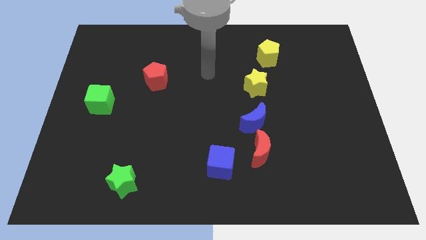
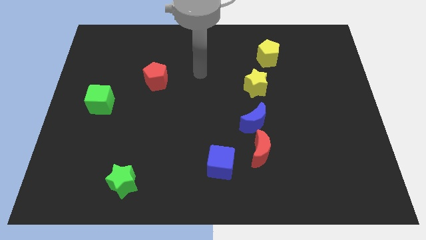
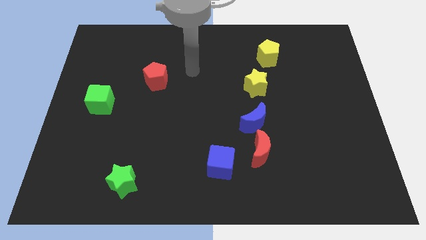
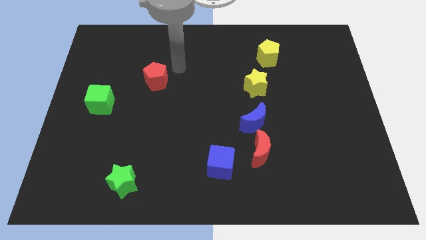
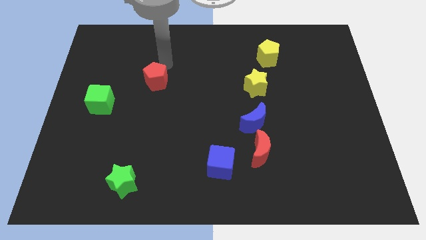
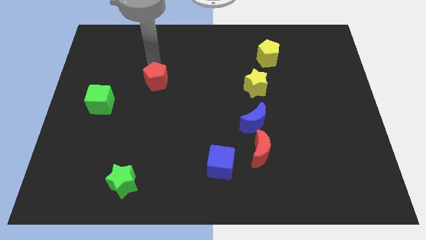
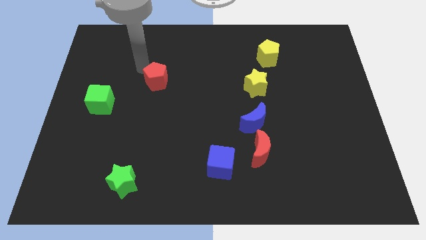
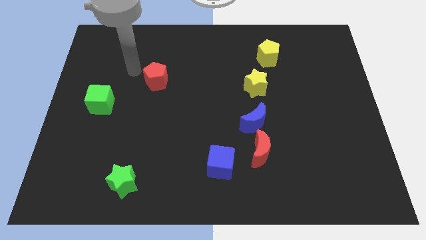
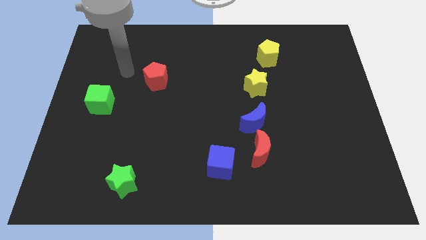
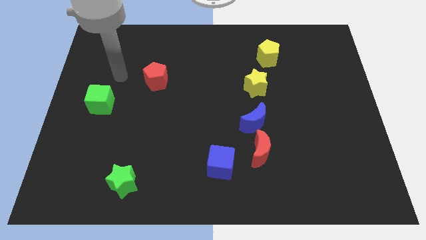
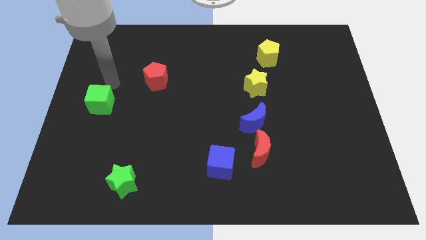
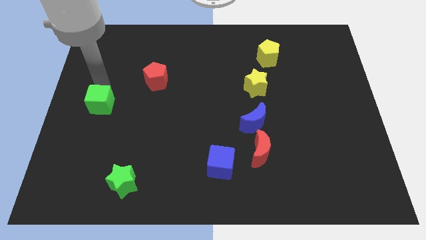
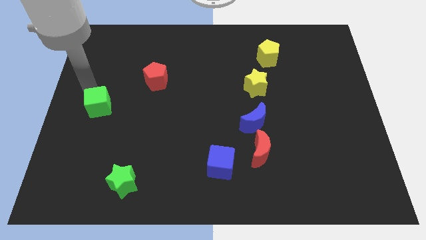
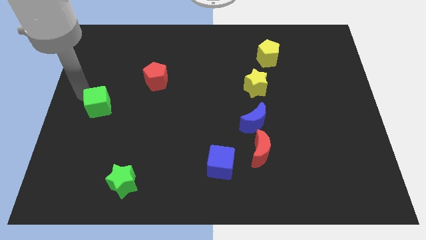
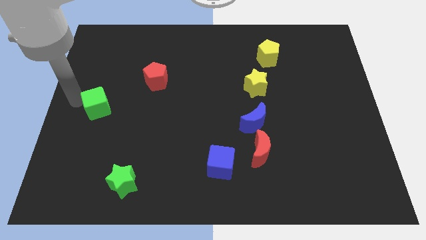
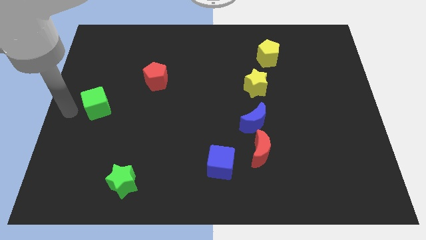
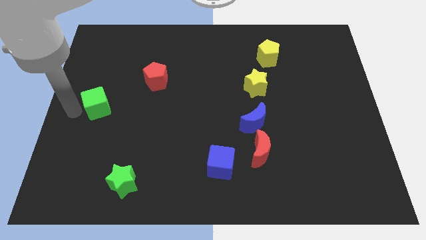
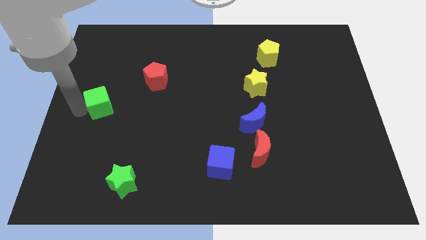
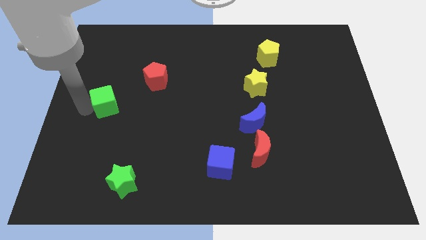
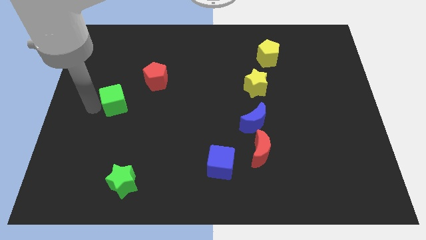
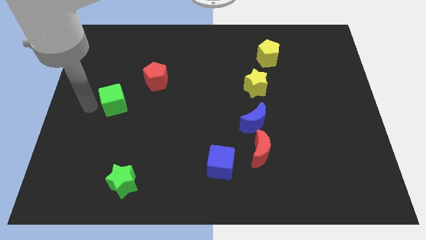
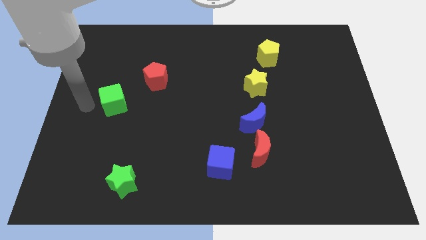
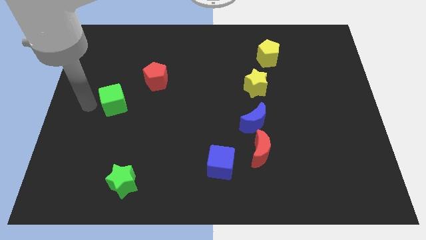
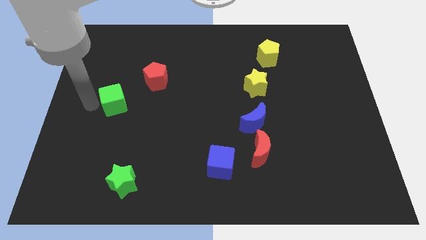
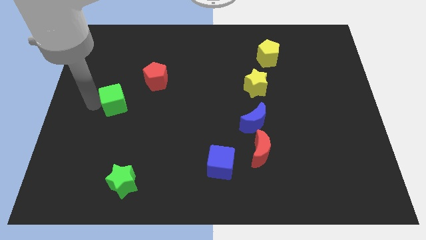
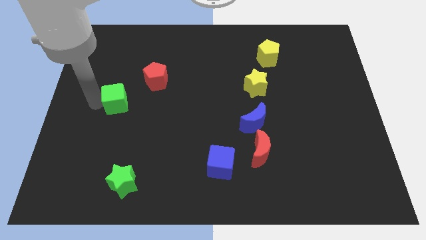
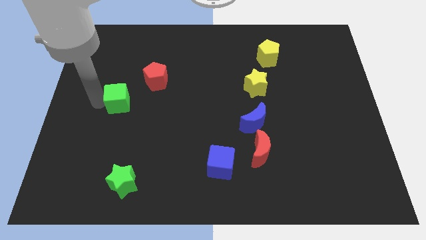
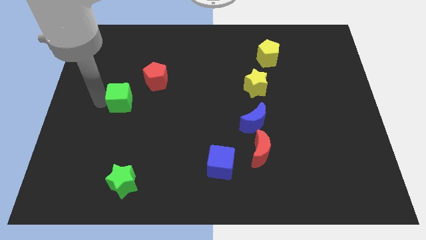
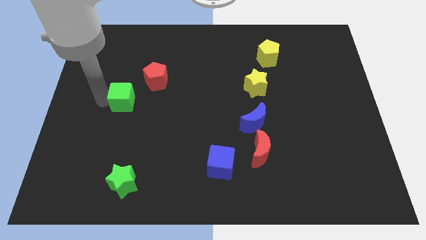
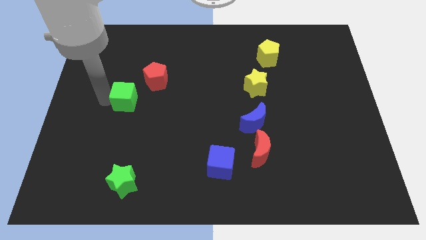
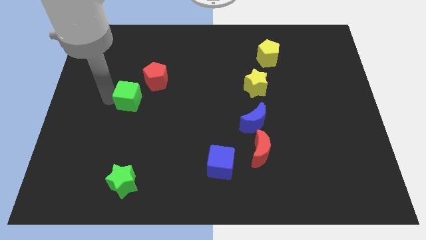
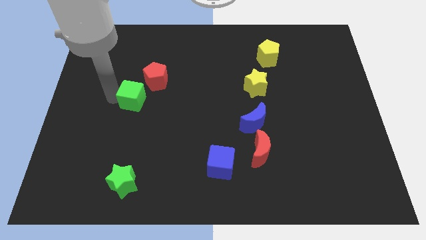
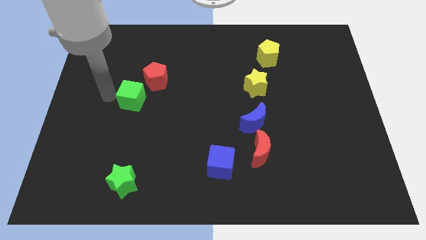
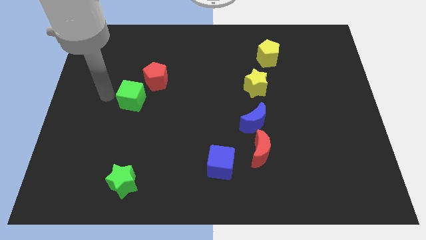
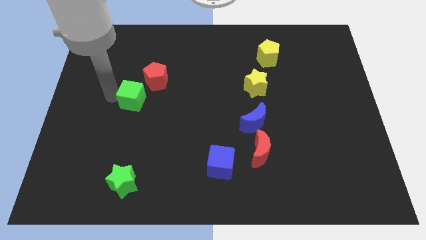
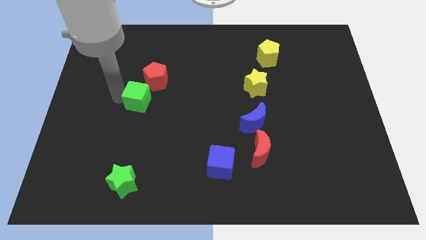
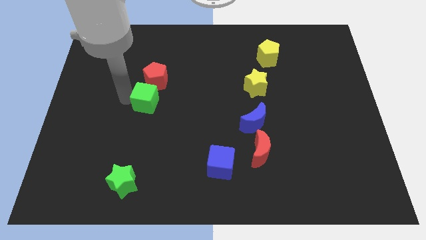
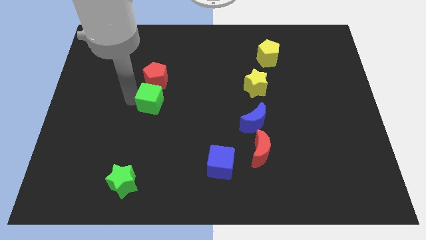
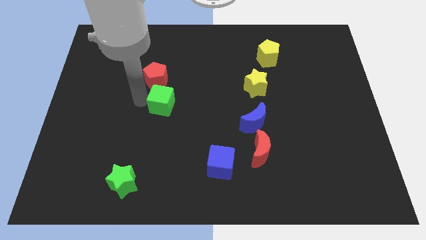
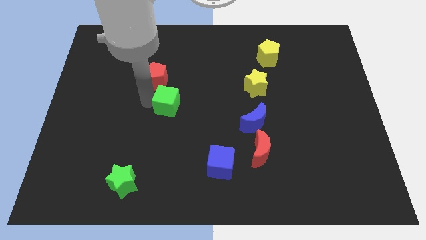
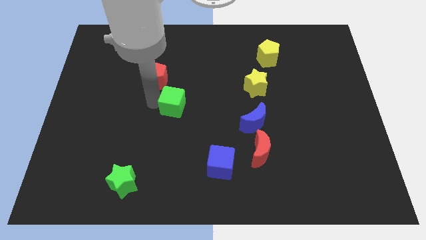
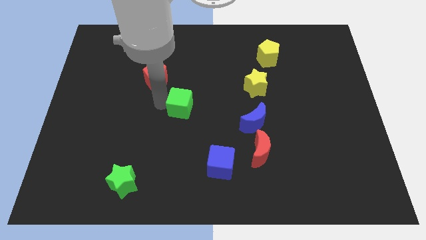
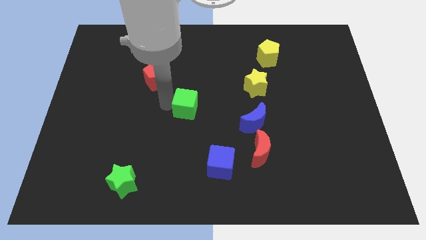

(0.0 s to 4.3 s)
move the green cube right

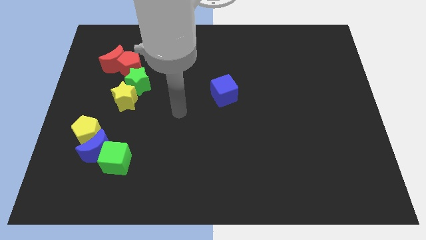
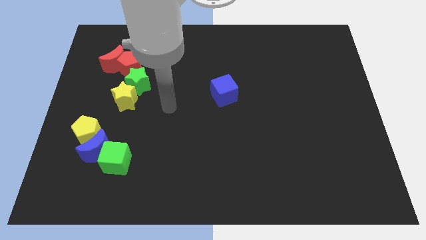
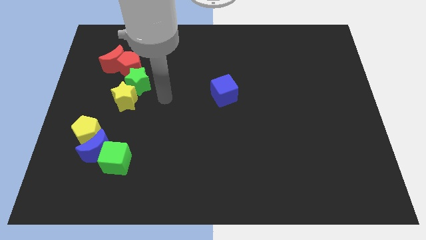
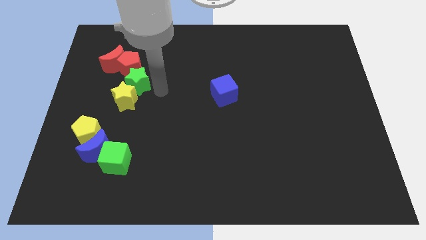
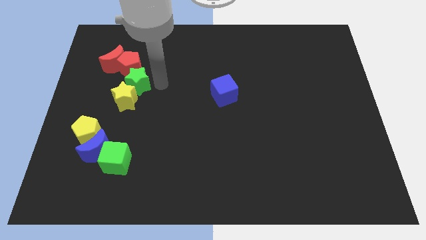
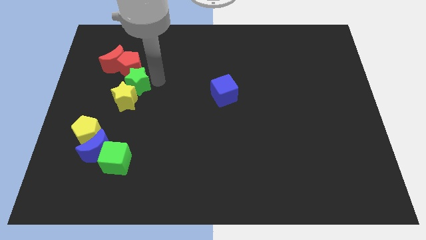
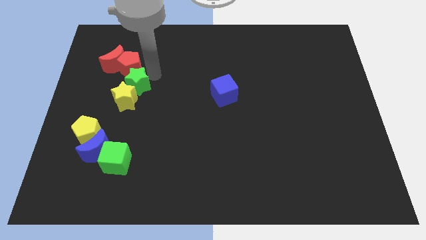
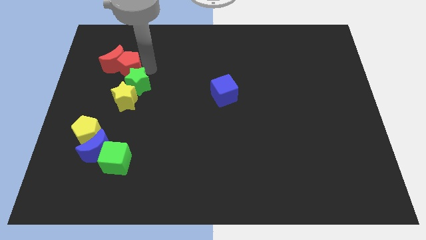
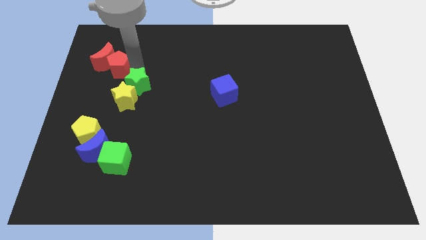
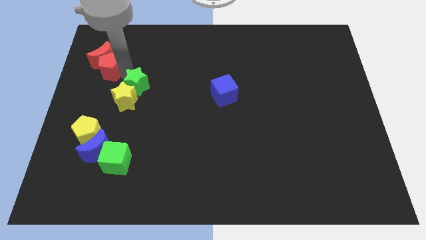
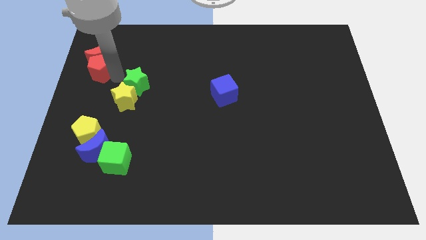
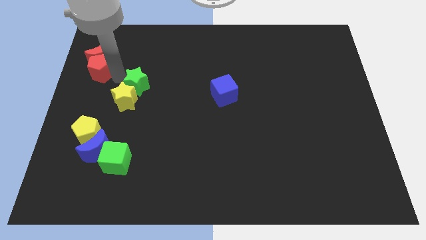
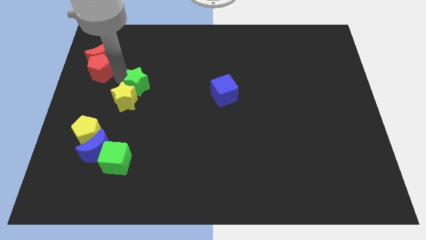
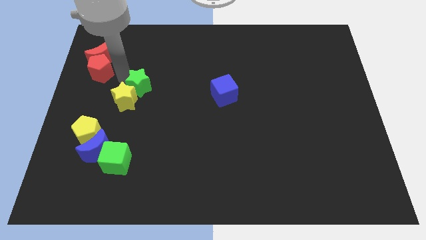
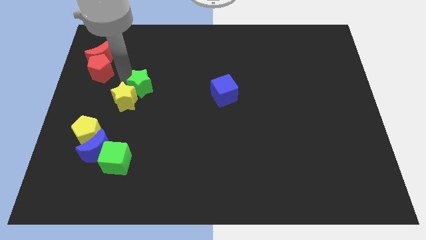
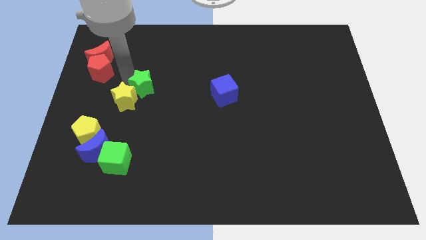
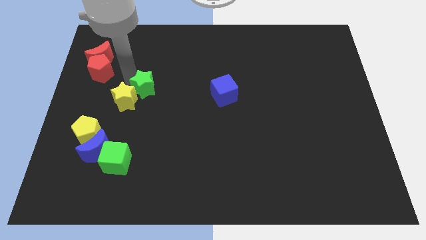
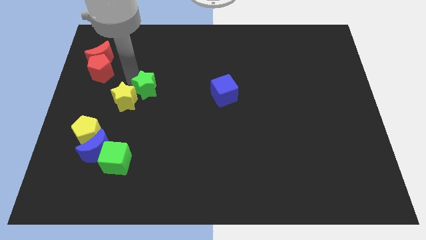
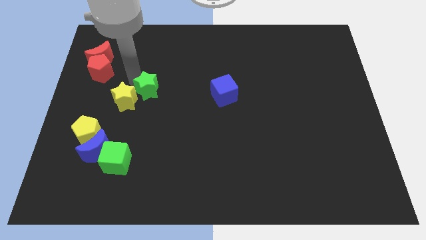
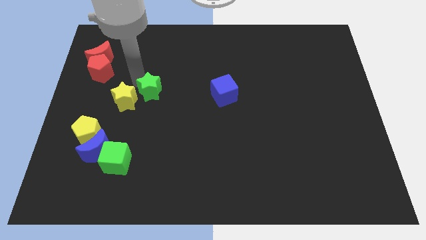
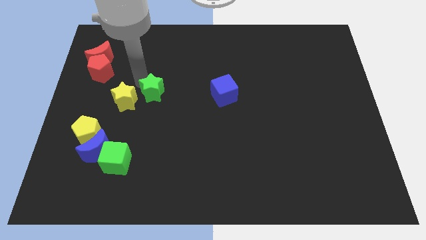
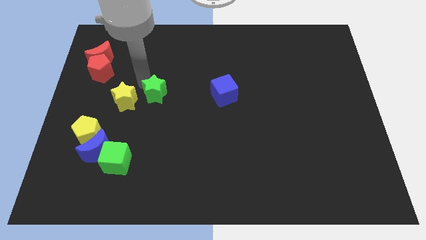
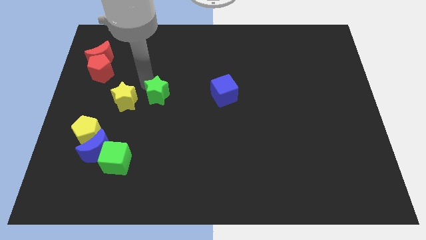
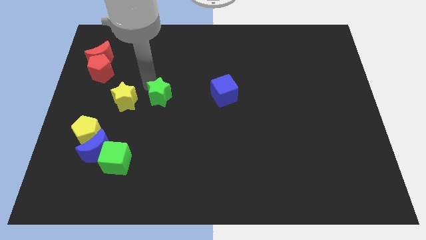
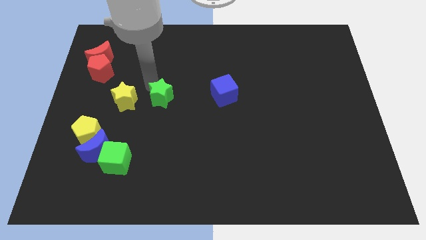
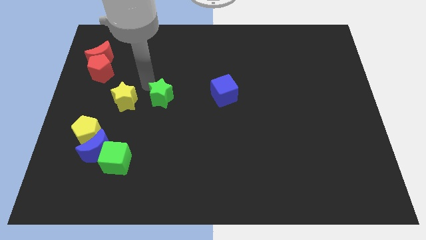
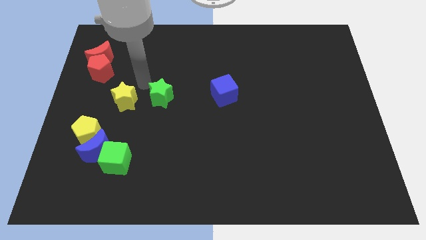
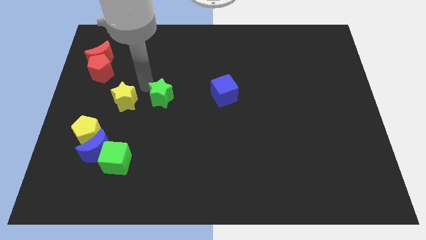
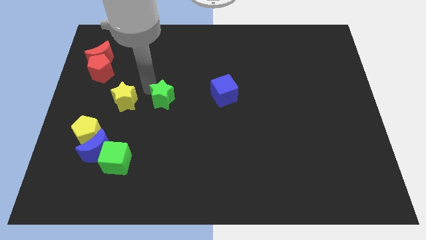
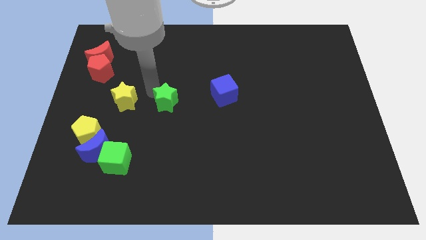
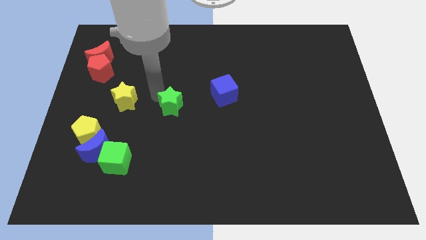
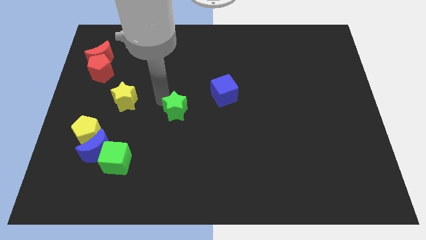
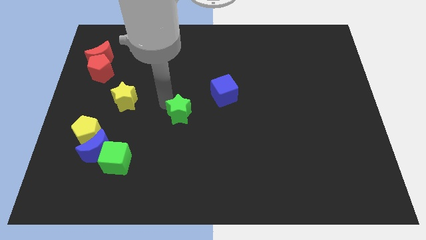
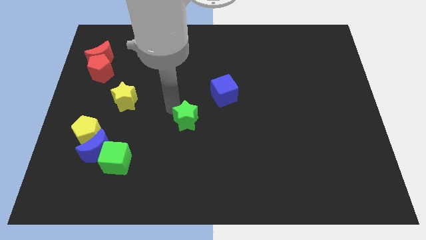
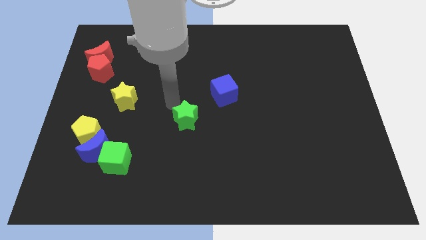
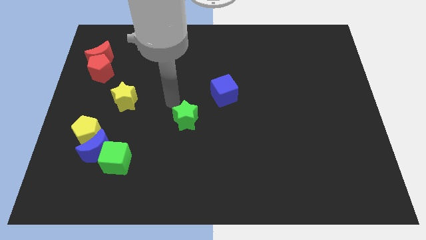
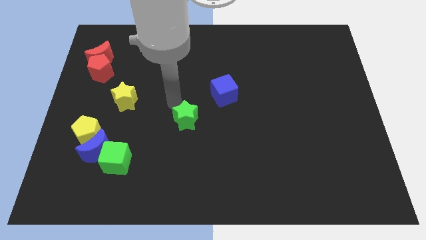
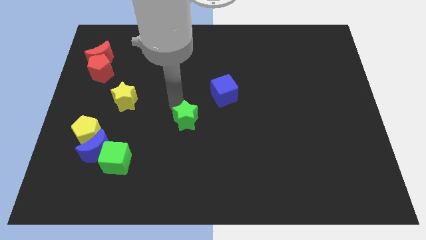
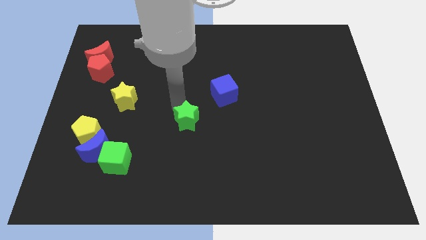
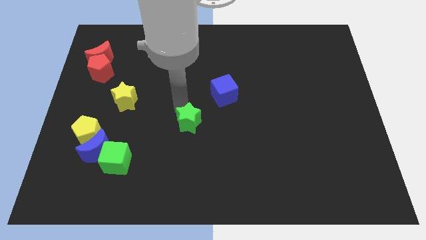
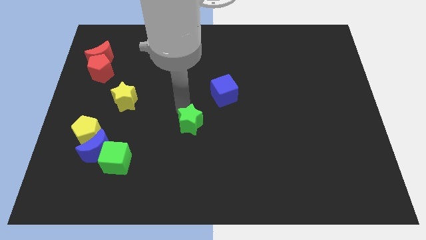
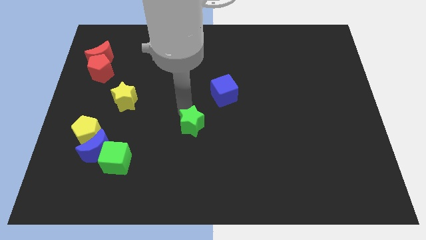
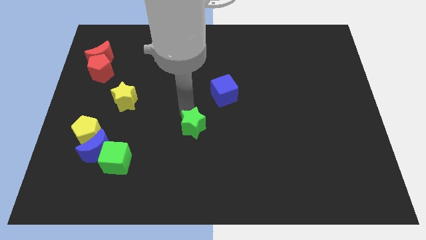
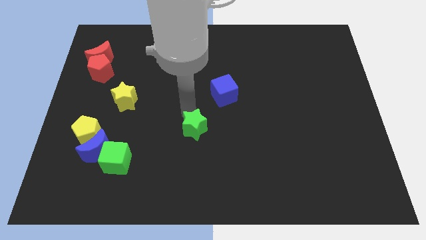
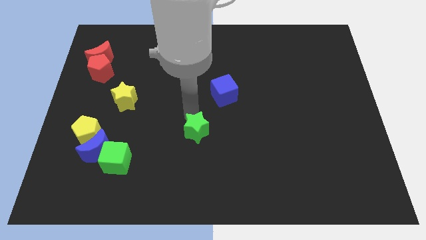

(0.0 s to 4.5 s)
push the green star down and to the right
